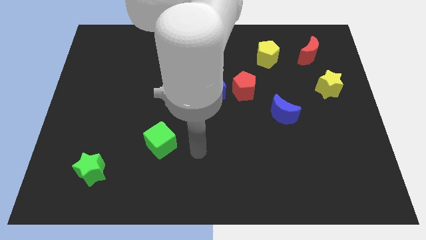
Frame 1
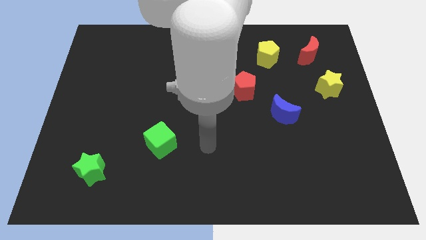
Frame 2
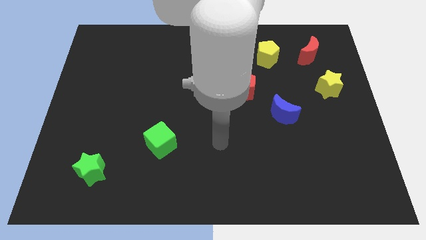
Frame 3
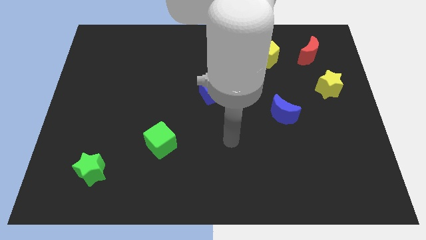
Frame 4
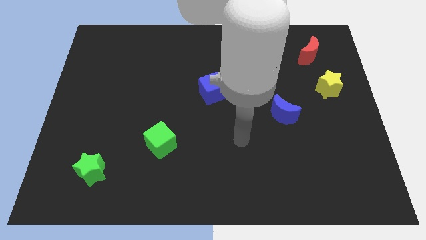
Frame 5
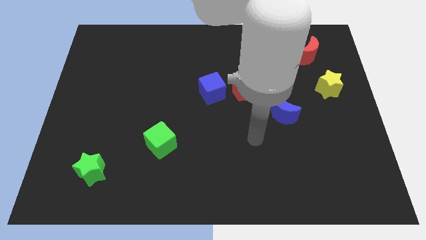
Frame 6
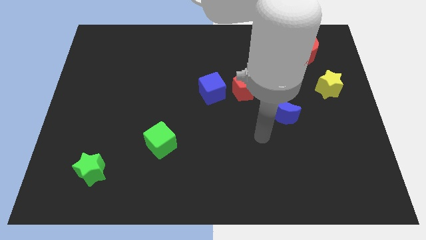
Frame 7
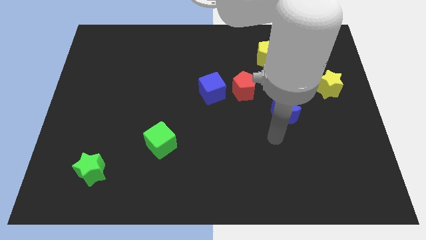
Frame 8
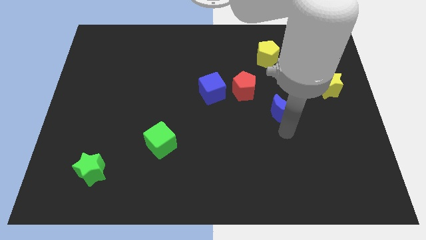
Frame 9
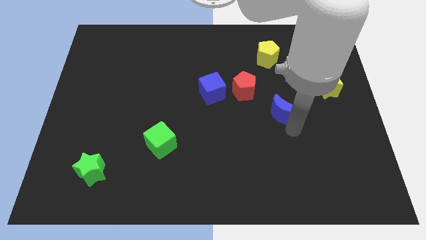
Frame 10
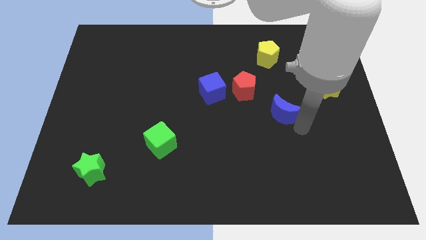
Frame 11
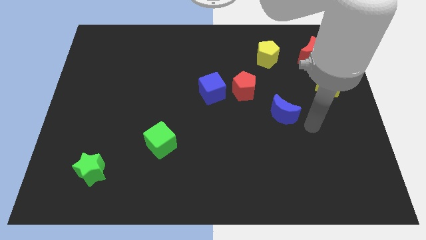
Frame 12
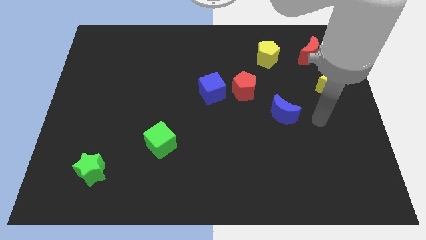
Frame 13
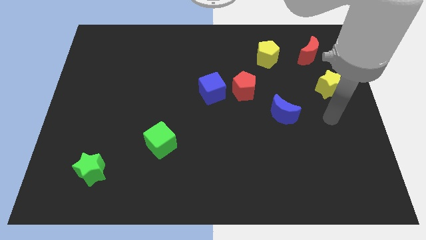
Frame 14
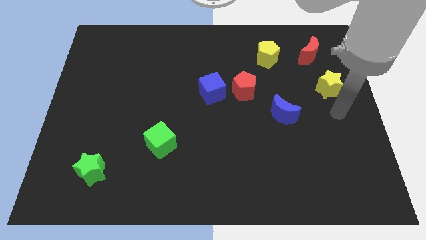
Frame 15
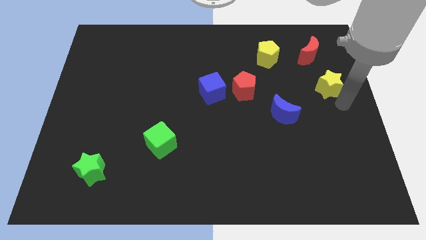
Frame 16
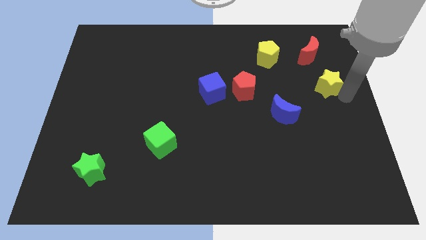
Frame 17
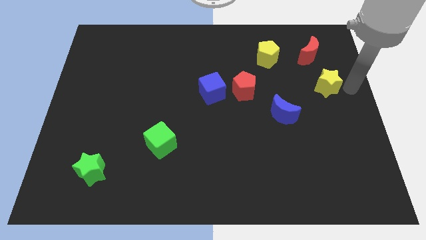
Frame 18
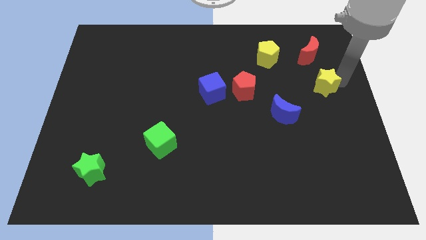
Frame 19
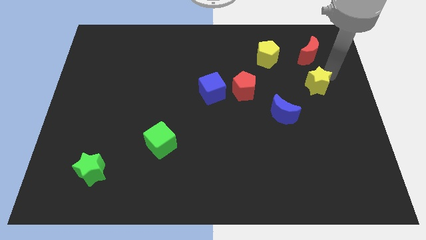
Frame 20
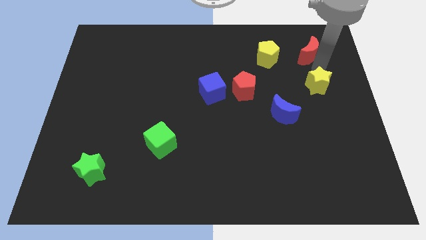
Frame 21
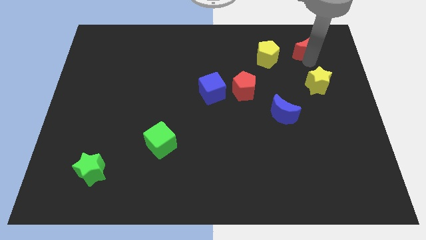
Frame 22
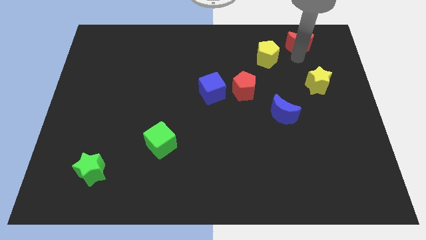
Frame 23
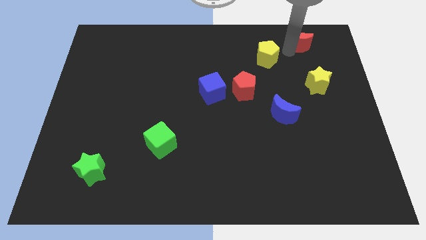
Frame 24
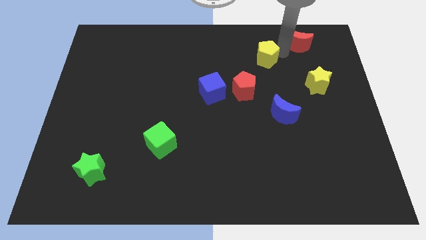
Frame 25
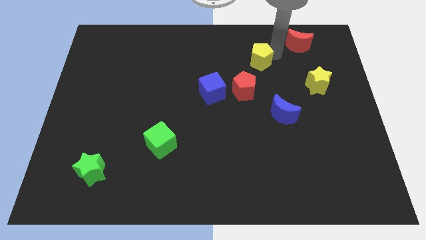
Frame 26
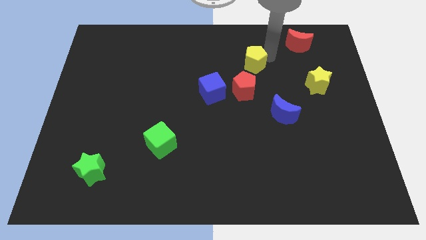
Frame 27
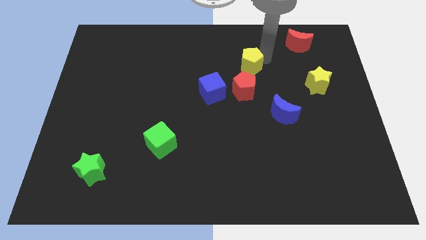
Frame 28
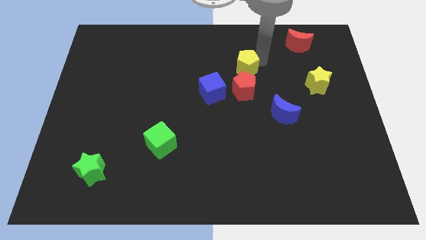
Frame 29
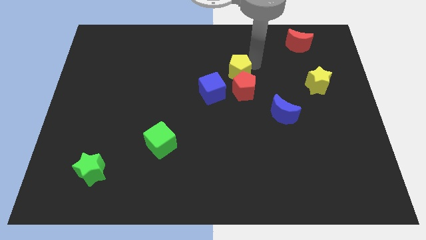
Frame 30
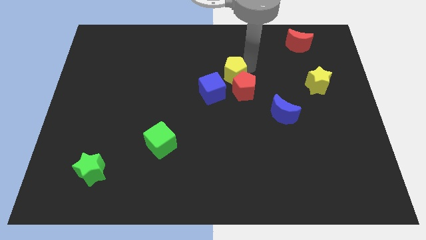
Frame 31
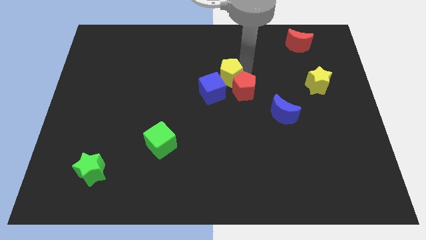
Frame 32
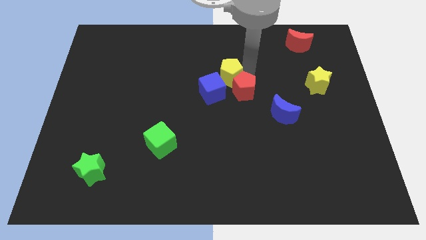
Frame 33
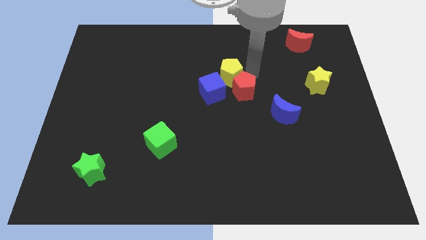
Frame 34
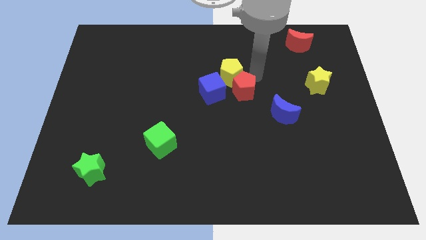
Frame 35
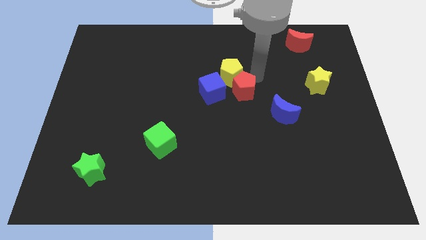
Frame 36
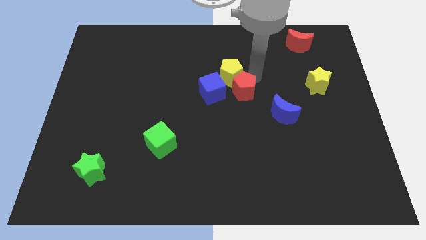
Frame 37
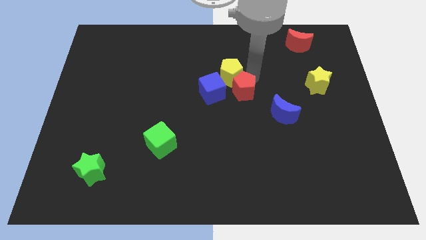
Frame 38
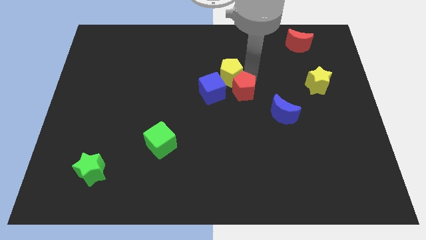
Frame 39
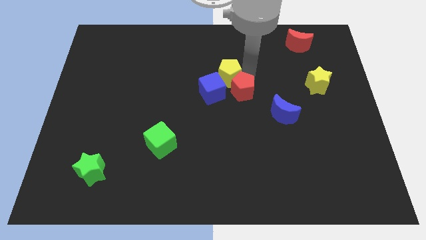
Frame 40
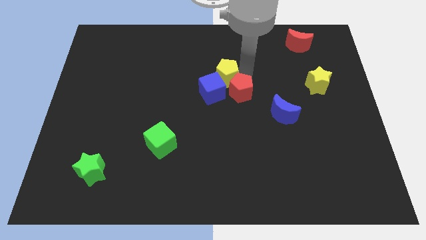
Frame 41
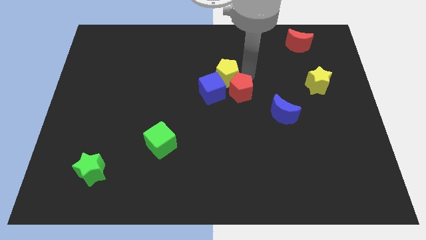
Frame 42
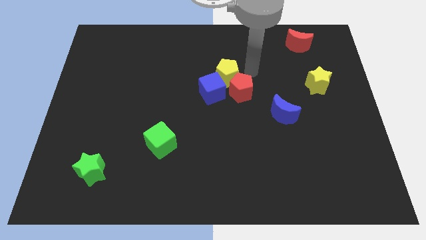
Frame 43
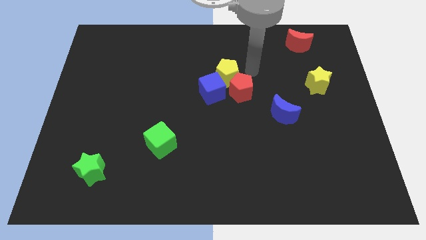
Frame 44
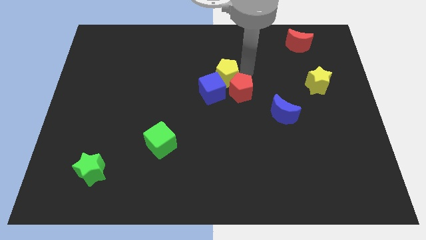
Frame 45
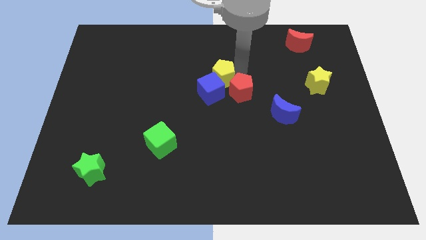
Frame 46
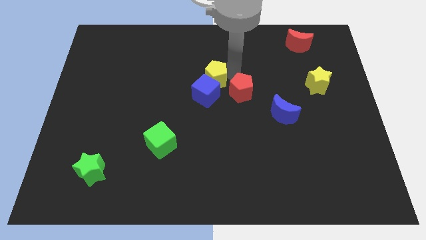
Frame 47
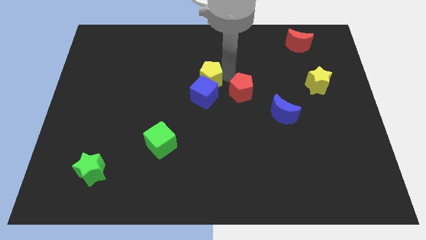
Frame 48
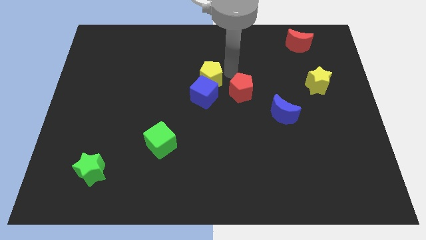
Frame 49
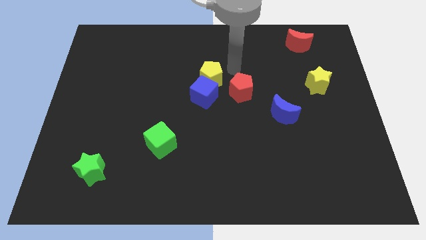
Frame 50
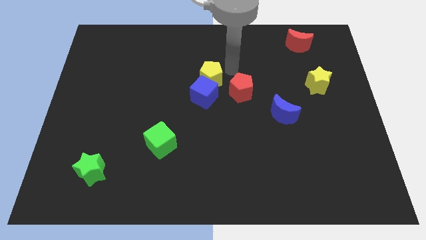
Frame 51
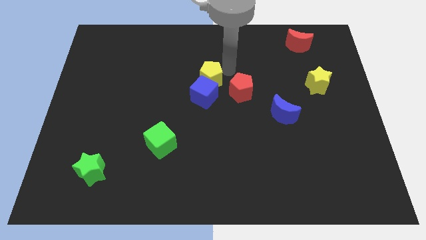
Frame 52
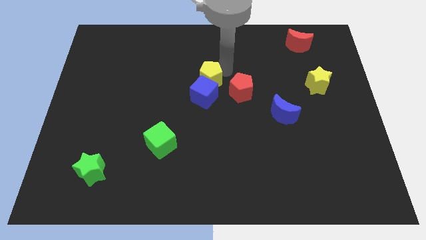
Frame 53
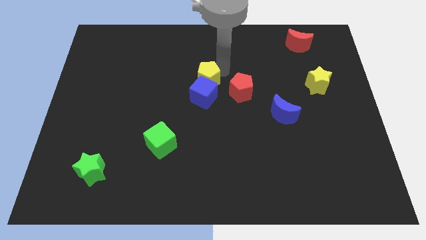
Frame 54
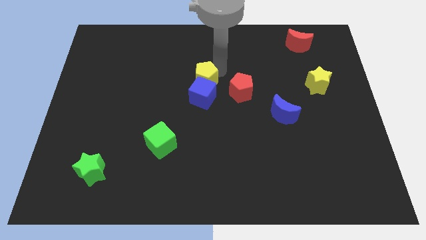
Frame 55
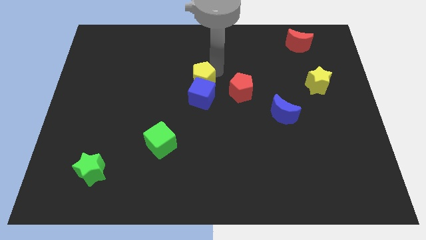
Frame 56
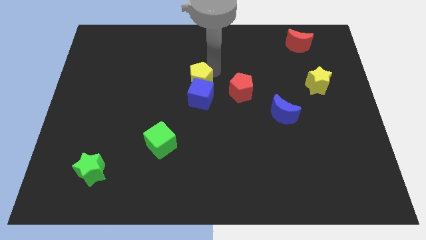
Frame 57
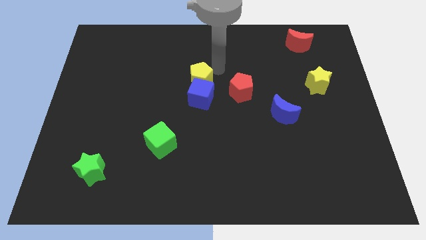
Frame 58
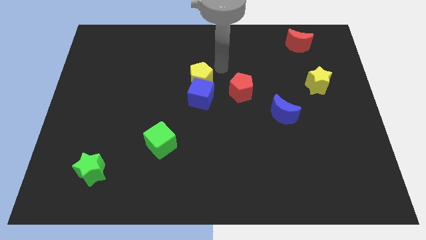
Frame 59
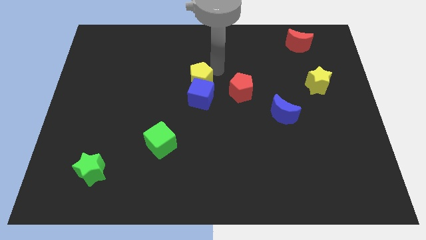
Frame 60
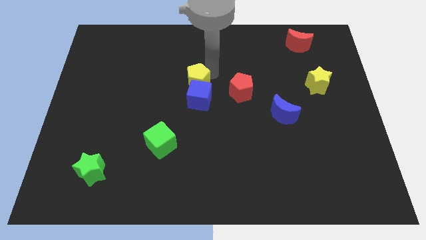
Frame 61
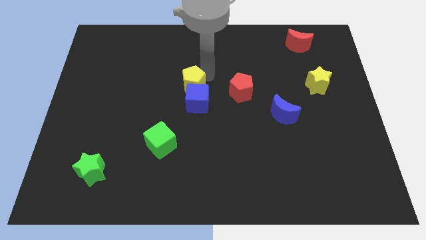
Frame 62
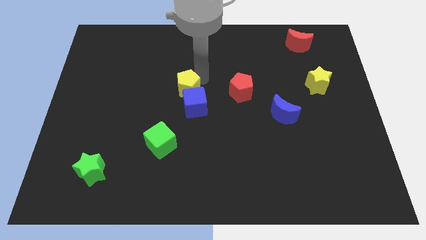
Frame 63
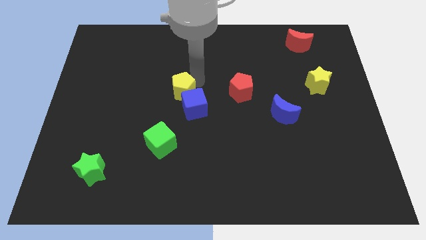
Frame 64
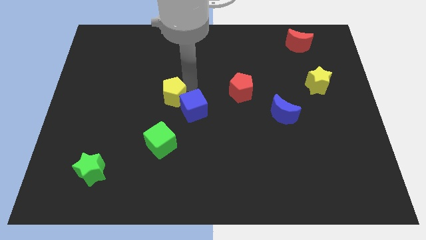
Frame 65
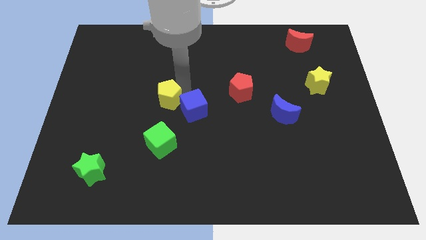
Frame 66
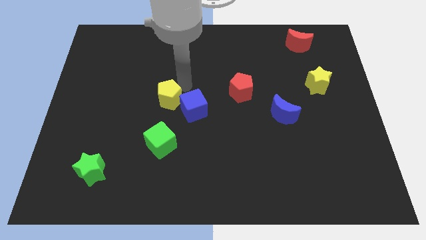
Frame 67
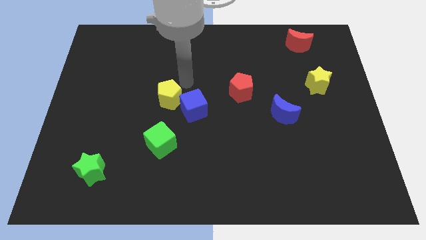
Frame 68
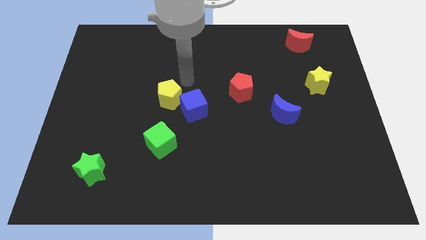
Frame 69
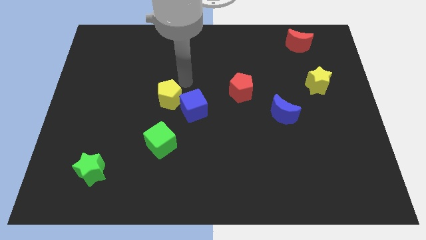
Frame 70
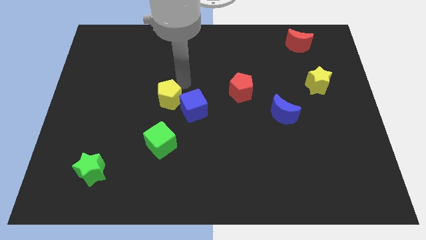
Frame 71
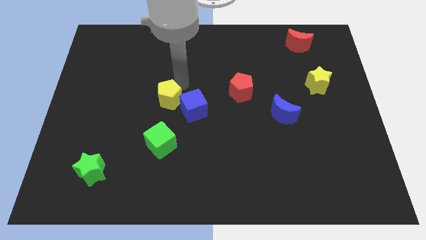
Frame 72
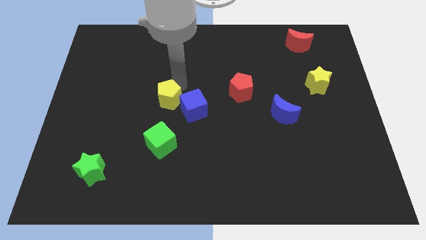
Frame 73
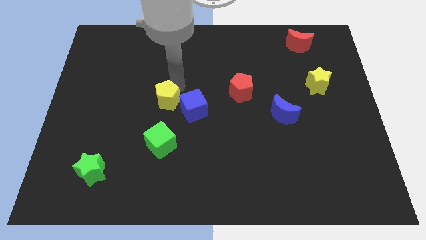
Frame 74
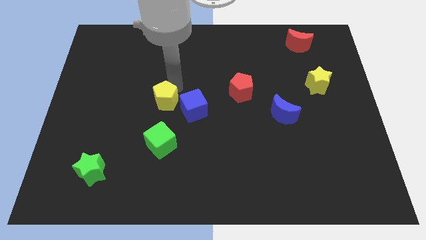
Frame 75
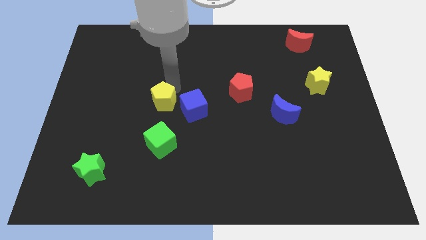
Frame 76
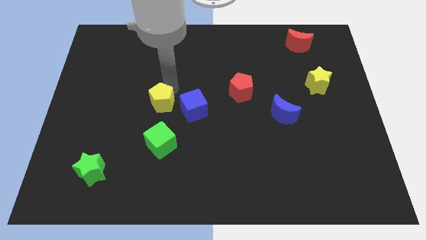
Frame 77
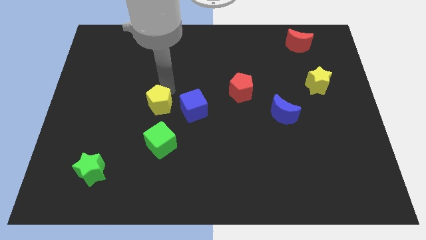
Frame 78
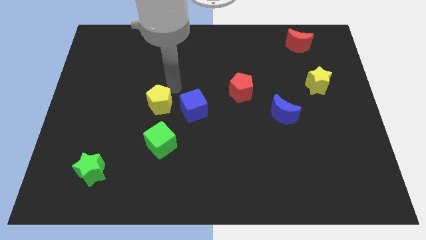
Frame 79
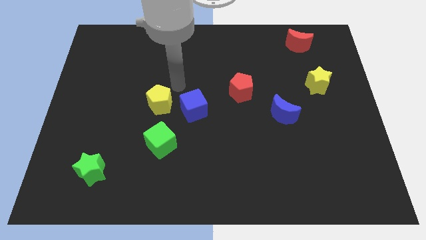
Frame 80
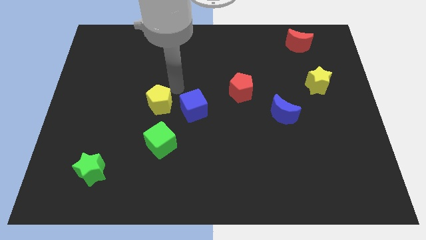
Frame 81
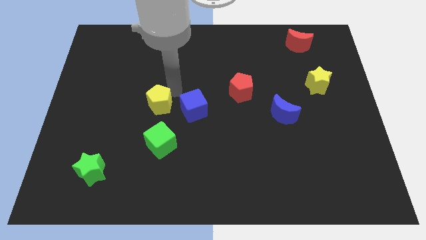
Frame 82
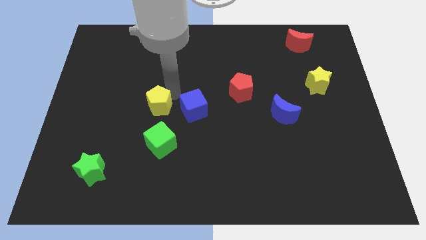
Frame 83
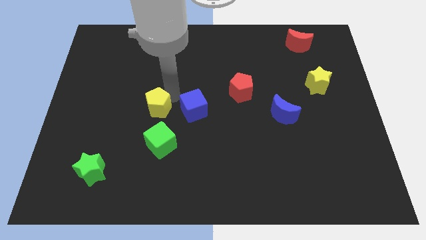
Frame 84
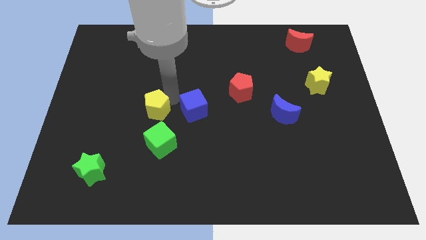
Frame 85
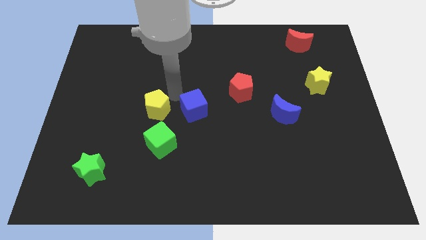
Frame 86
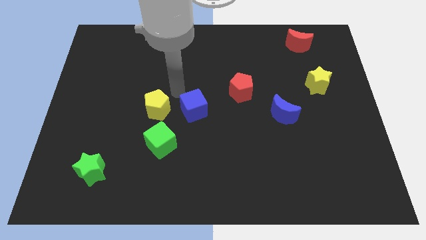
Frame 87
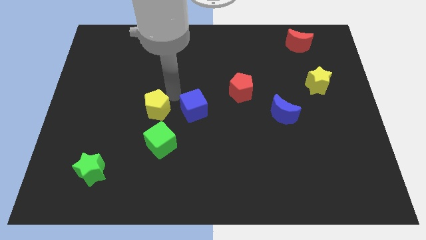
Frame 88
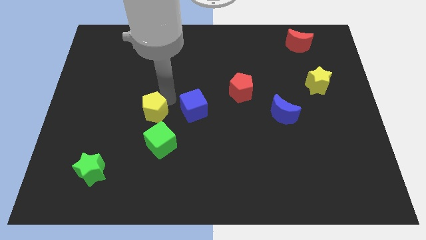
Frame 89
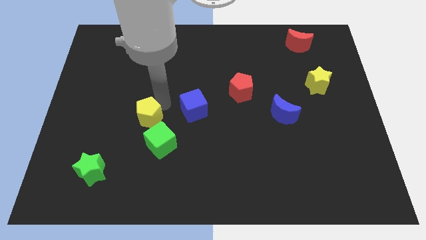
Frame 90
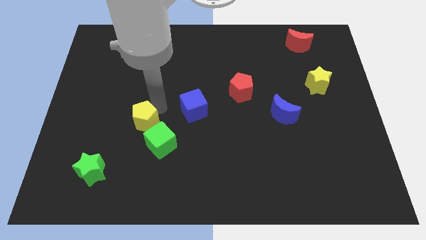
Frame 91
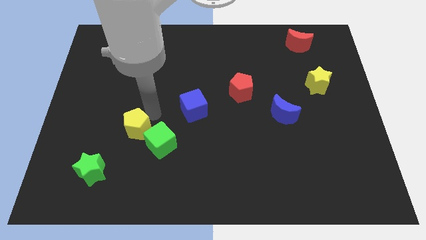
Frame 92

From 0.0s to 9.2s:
put the yellow pentagon to the left of the green cube
